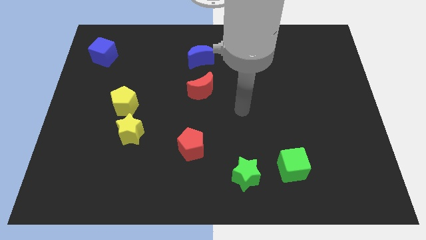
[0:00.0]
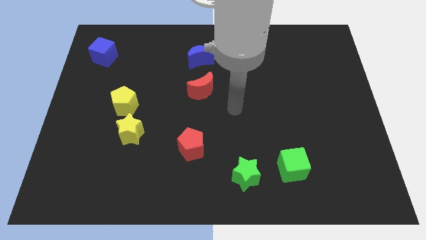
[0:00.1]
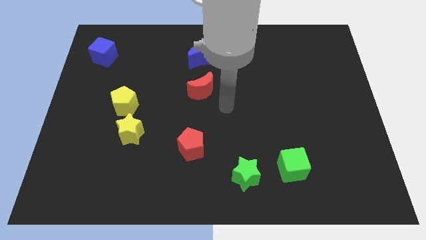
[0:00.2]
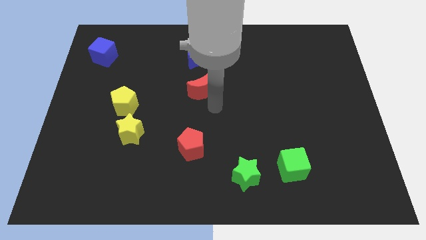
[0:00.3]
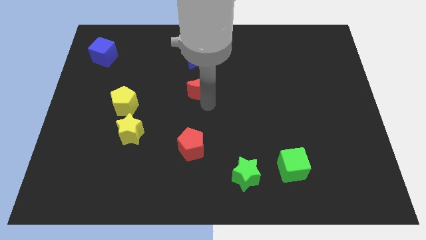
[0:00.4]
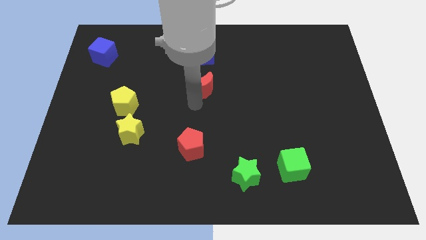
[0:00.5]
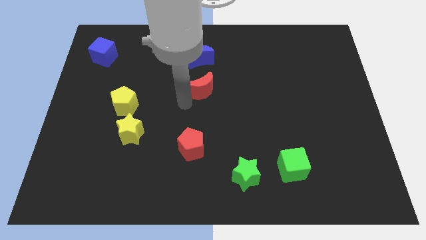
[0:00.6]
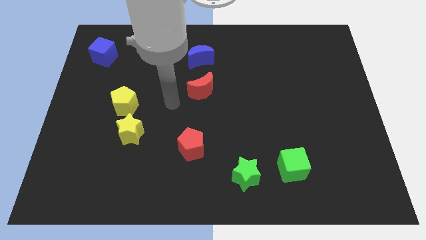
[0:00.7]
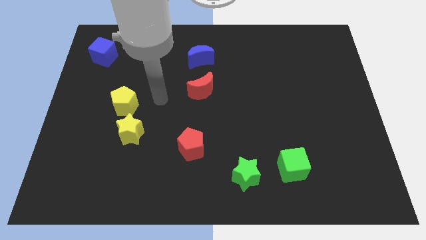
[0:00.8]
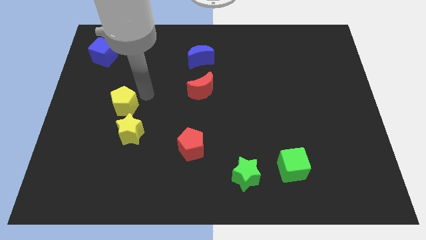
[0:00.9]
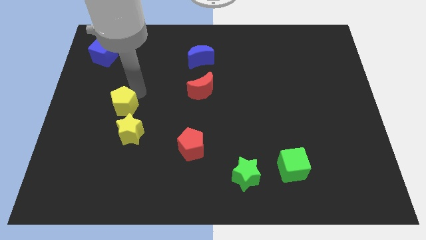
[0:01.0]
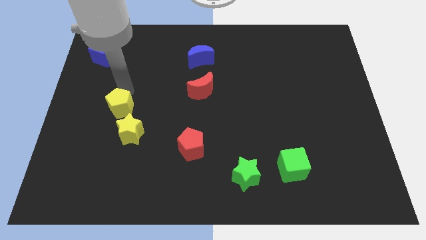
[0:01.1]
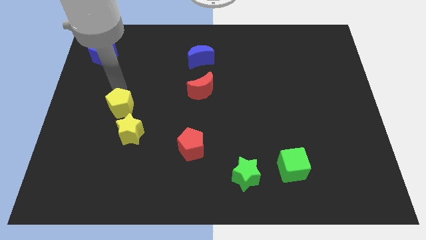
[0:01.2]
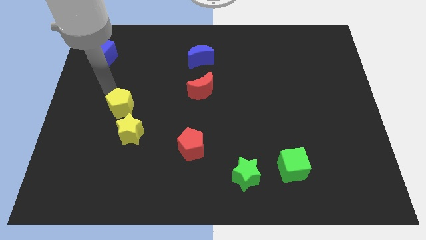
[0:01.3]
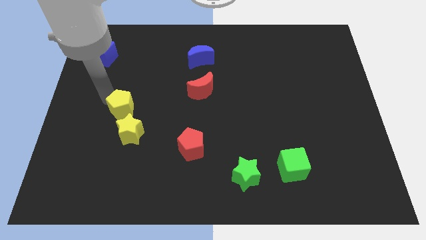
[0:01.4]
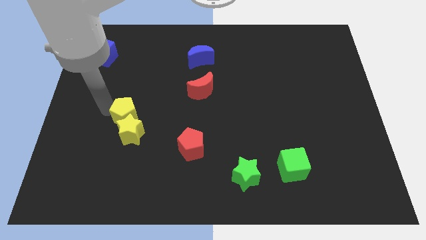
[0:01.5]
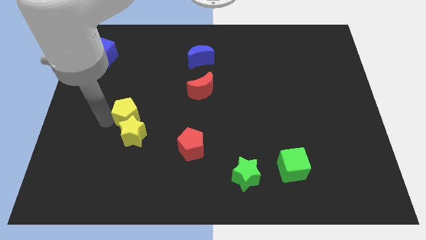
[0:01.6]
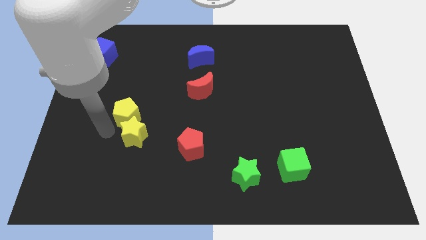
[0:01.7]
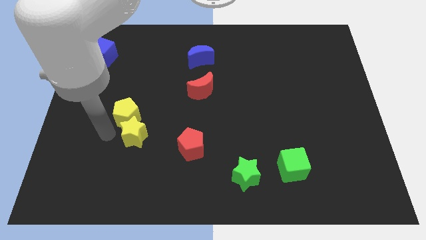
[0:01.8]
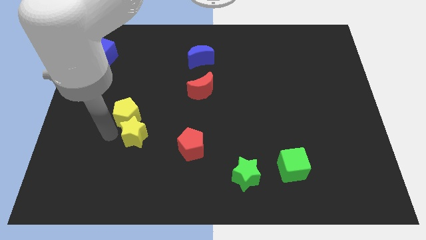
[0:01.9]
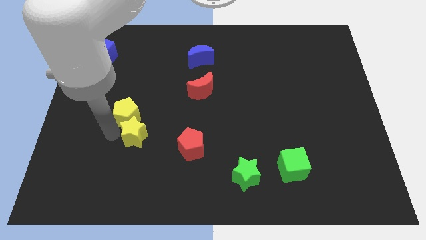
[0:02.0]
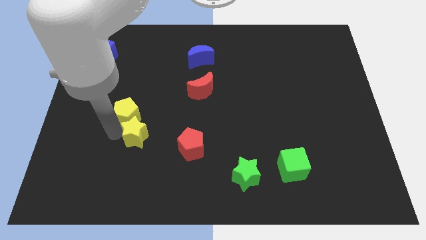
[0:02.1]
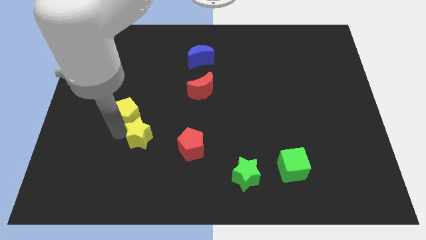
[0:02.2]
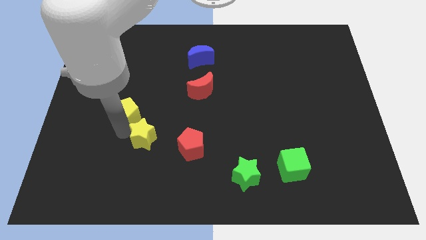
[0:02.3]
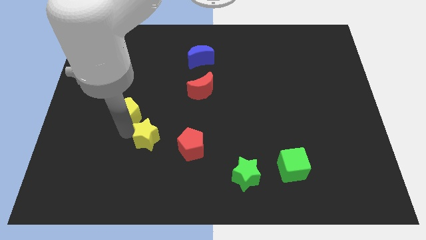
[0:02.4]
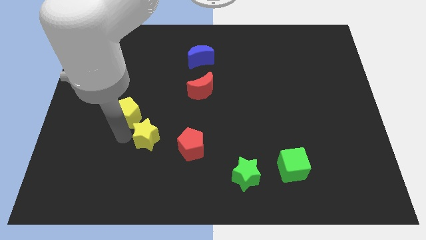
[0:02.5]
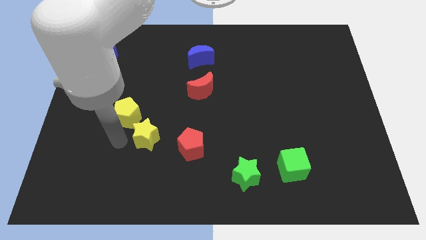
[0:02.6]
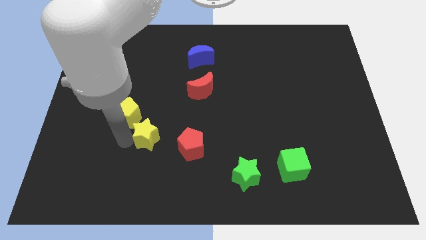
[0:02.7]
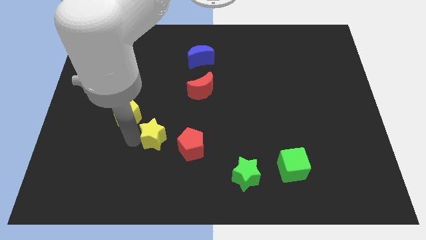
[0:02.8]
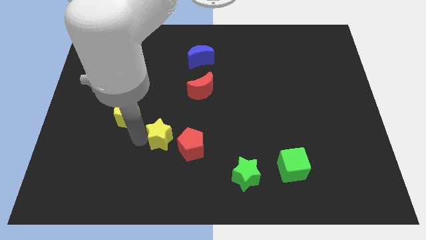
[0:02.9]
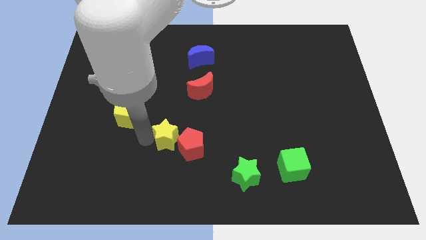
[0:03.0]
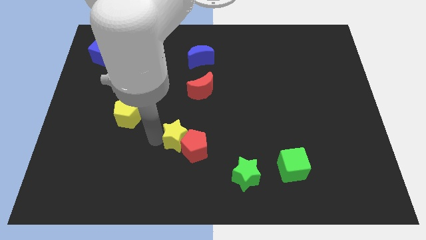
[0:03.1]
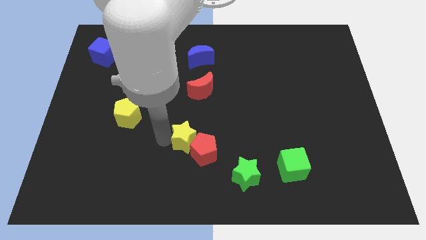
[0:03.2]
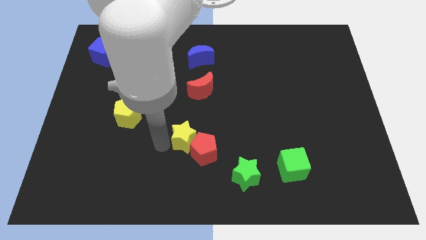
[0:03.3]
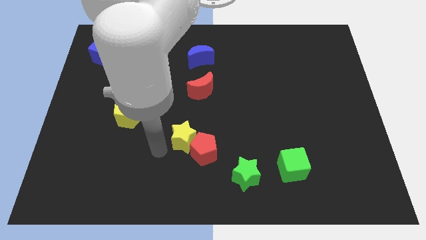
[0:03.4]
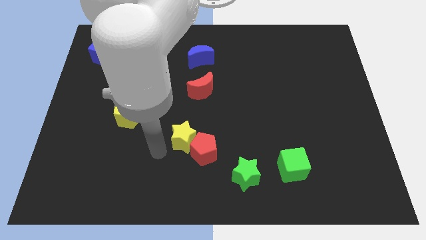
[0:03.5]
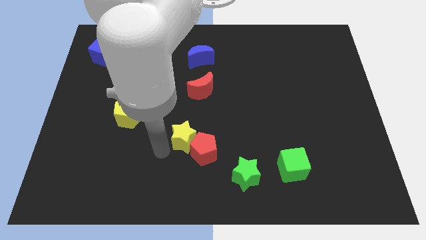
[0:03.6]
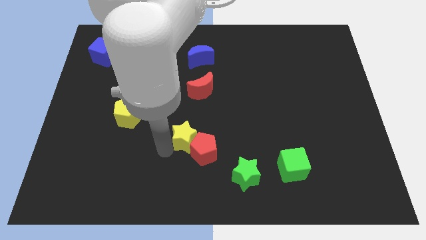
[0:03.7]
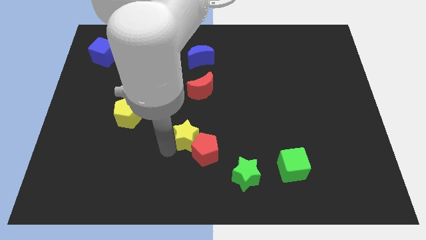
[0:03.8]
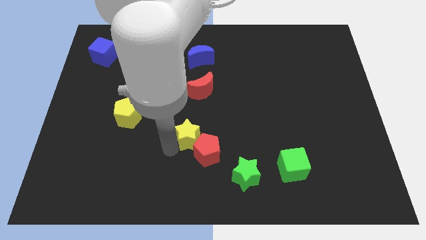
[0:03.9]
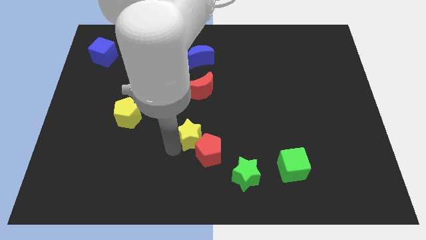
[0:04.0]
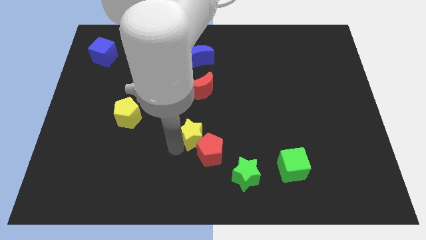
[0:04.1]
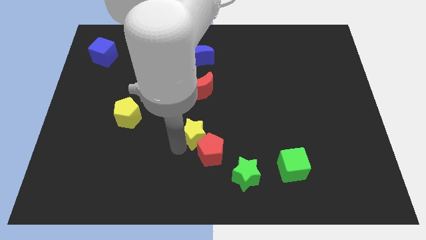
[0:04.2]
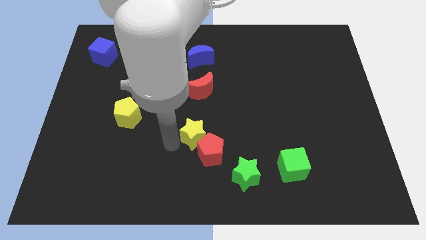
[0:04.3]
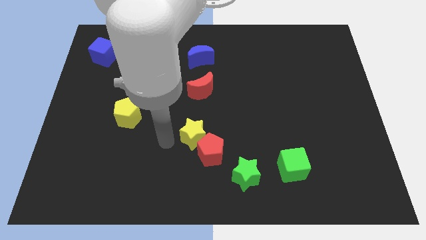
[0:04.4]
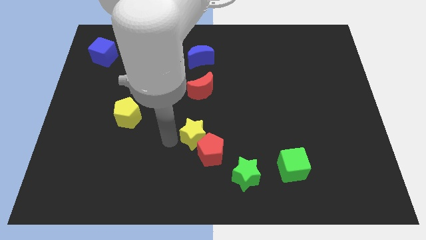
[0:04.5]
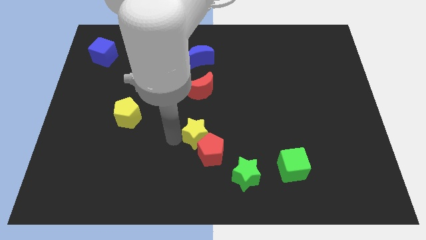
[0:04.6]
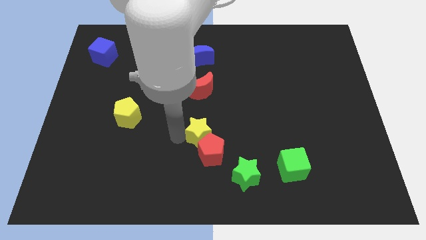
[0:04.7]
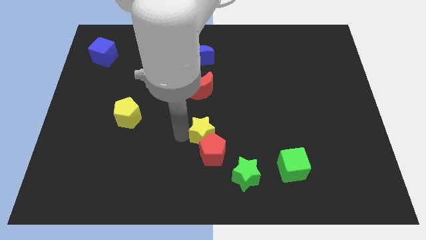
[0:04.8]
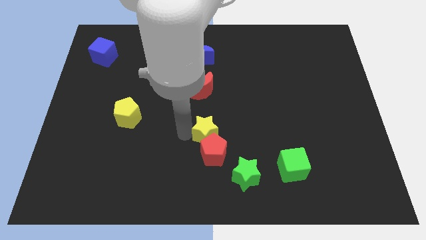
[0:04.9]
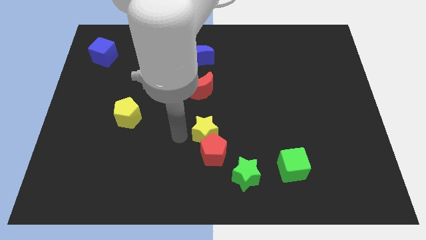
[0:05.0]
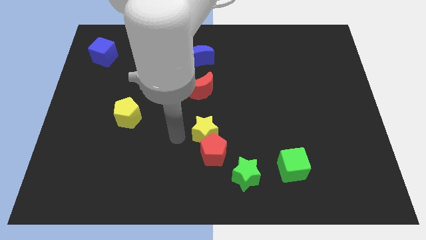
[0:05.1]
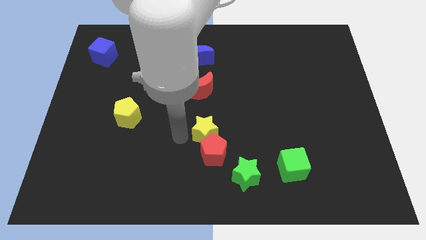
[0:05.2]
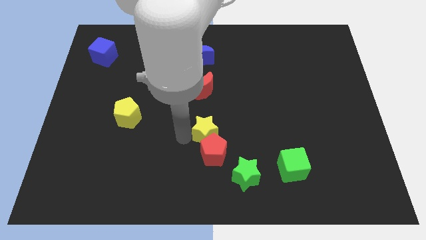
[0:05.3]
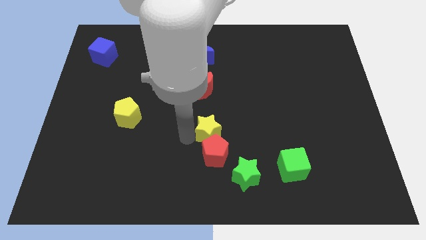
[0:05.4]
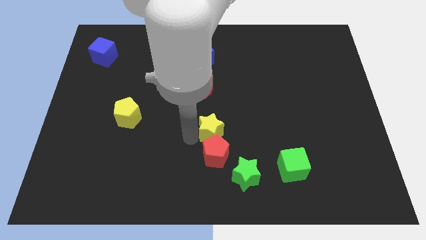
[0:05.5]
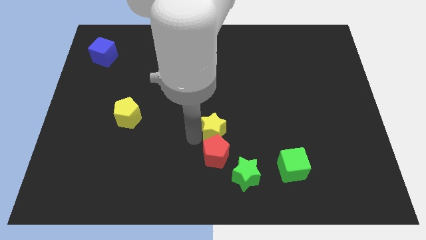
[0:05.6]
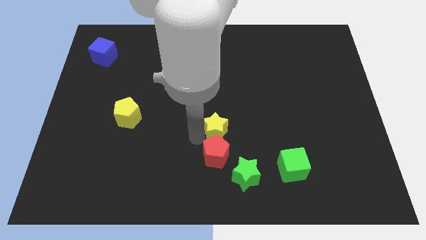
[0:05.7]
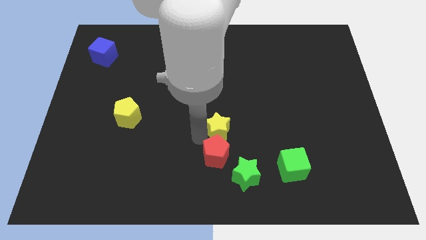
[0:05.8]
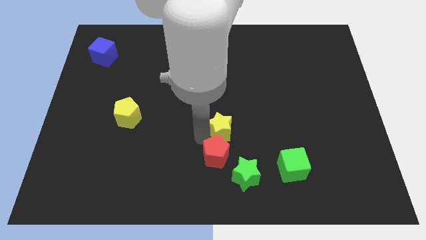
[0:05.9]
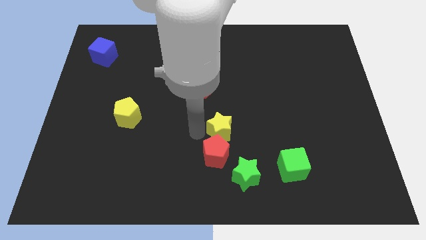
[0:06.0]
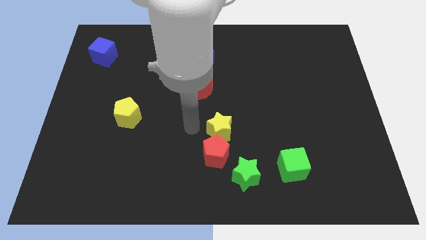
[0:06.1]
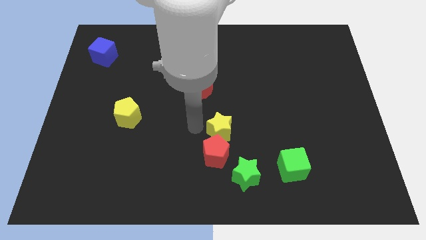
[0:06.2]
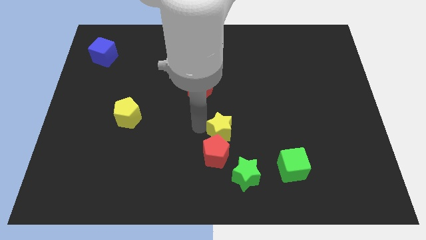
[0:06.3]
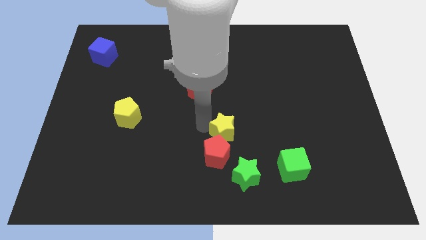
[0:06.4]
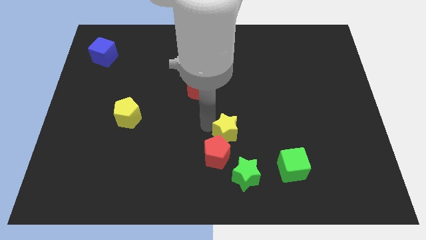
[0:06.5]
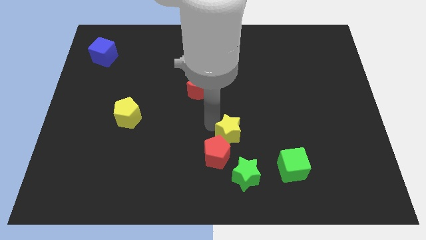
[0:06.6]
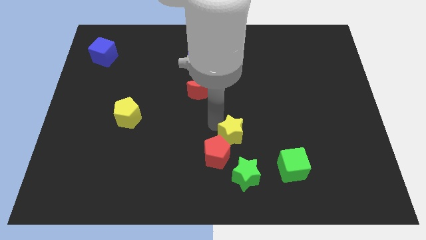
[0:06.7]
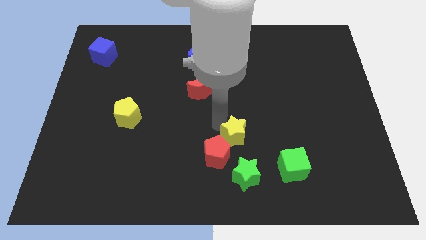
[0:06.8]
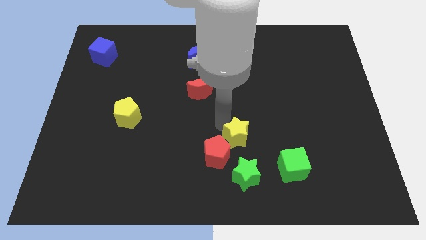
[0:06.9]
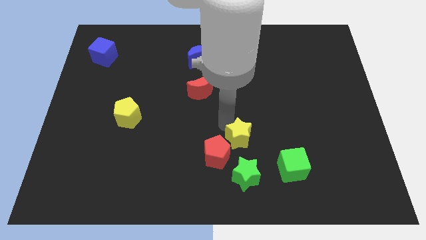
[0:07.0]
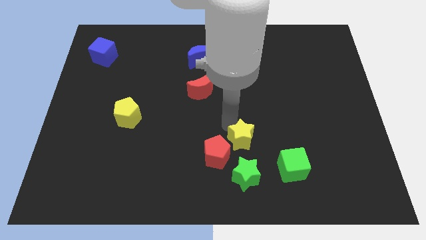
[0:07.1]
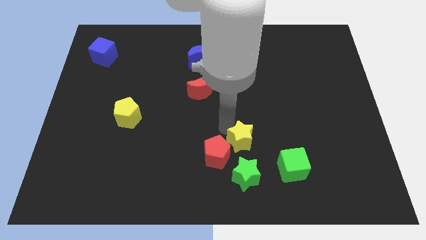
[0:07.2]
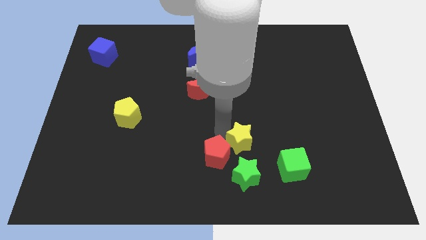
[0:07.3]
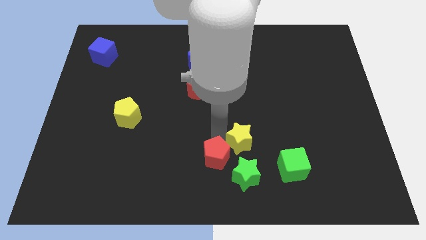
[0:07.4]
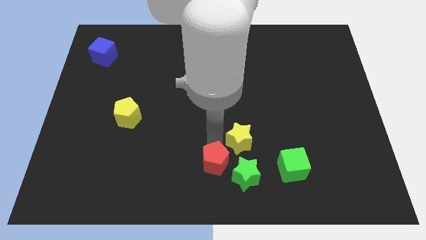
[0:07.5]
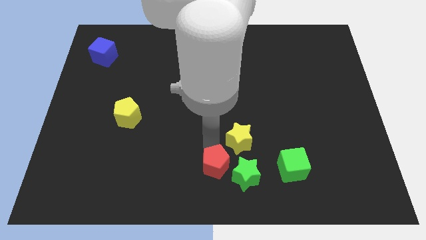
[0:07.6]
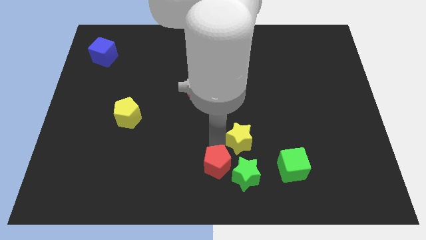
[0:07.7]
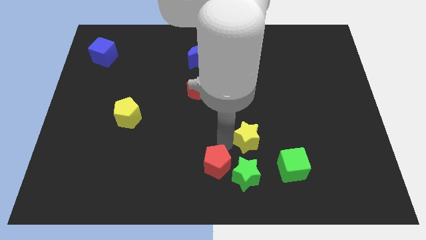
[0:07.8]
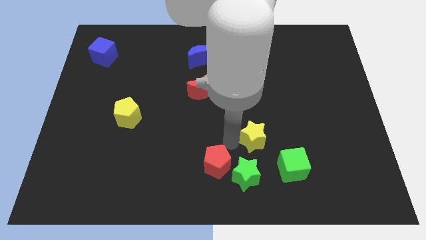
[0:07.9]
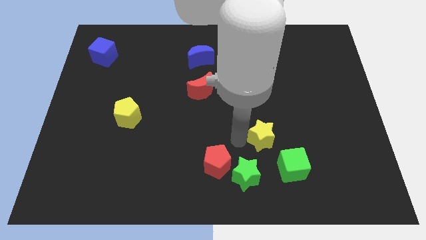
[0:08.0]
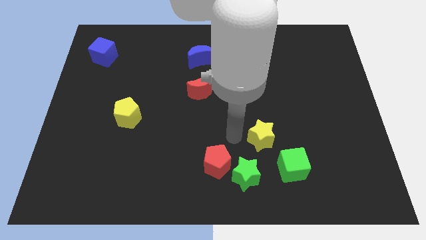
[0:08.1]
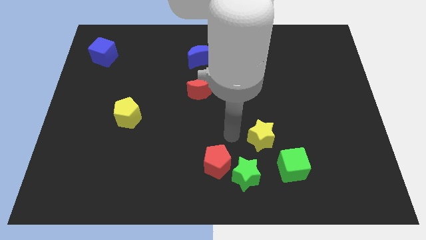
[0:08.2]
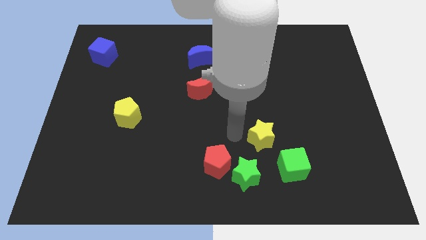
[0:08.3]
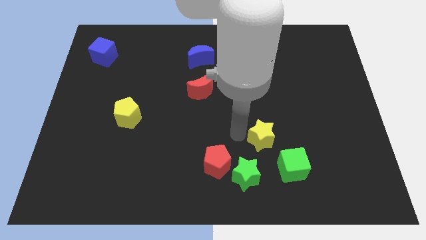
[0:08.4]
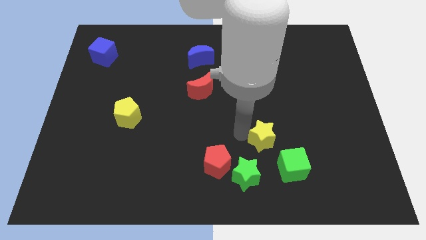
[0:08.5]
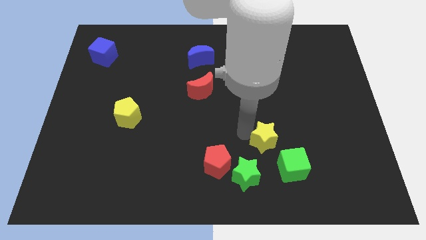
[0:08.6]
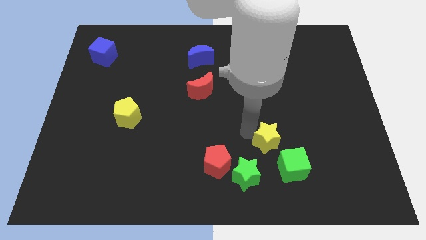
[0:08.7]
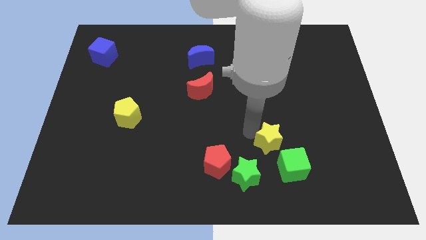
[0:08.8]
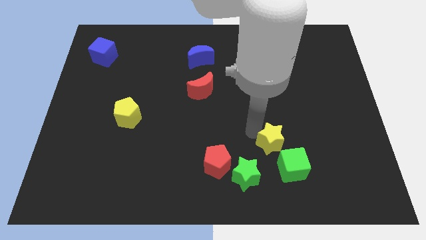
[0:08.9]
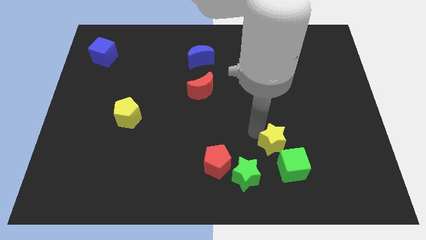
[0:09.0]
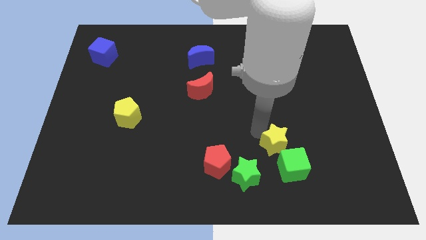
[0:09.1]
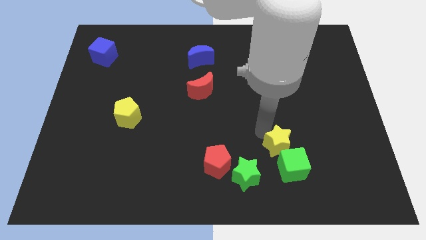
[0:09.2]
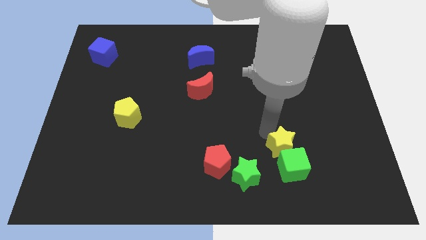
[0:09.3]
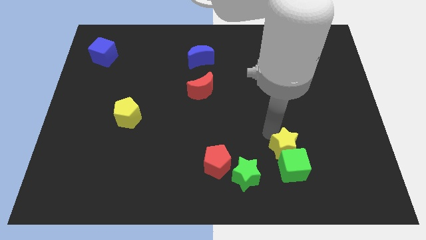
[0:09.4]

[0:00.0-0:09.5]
slide the yellow star to the top right side of the green cube
